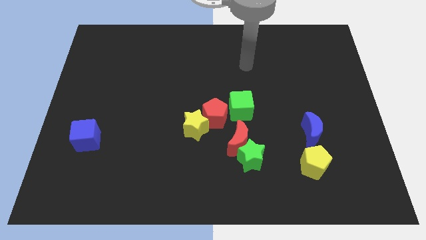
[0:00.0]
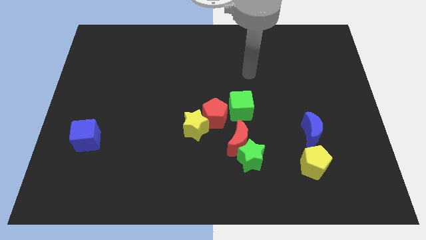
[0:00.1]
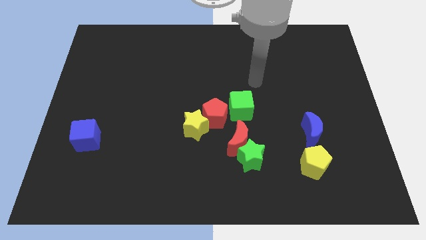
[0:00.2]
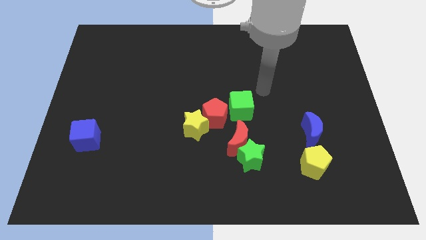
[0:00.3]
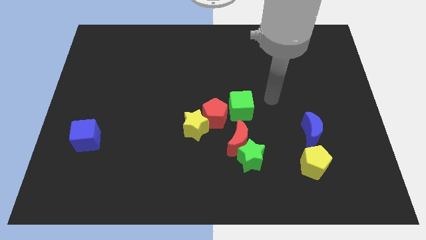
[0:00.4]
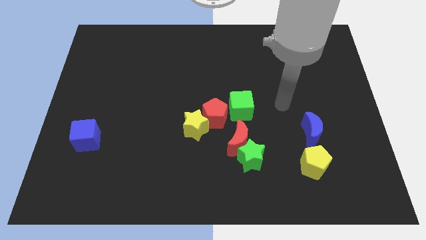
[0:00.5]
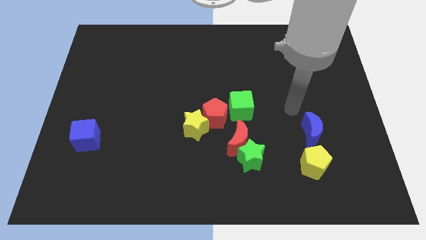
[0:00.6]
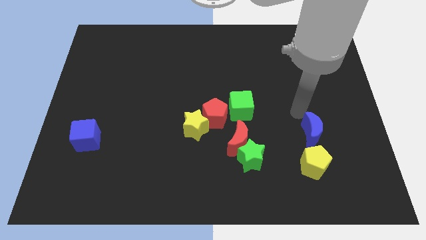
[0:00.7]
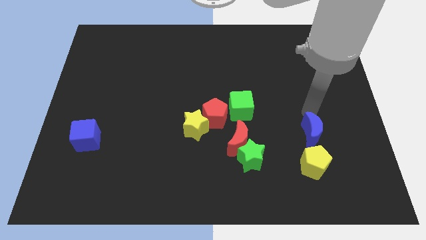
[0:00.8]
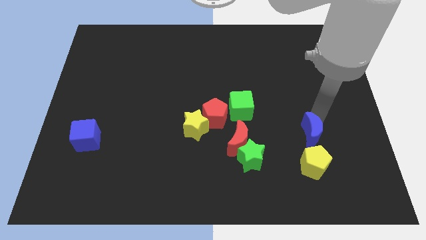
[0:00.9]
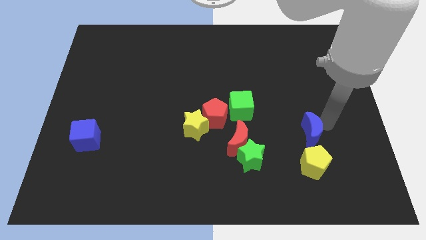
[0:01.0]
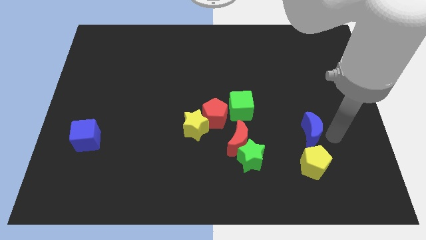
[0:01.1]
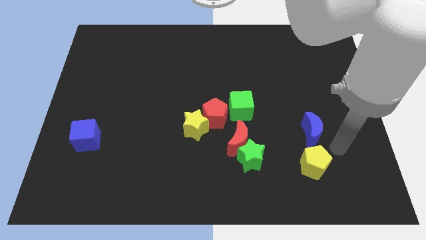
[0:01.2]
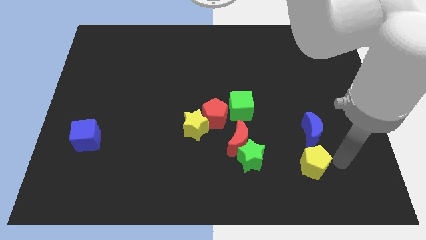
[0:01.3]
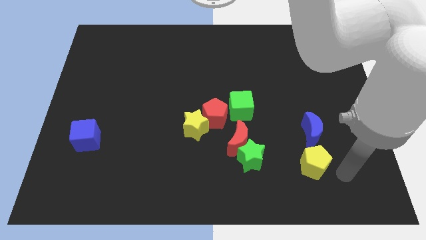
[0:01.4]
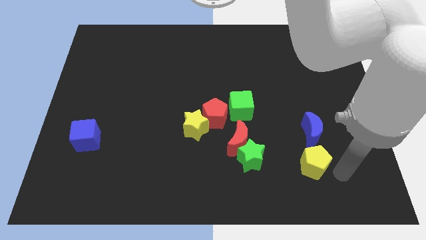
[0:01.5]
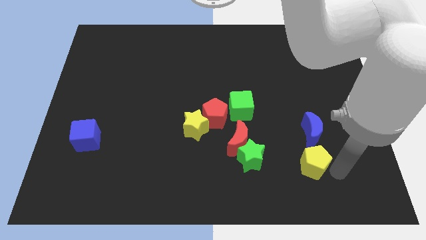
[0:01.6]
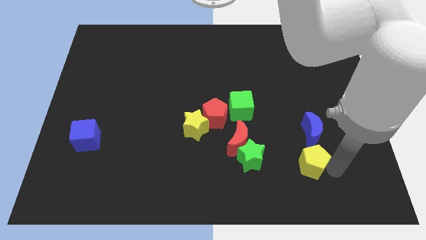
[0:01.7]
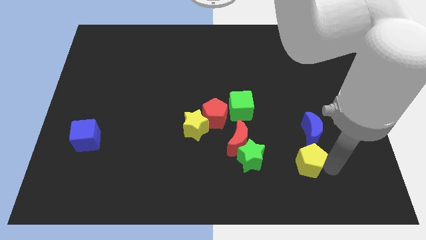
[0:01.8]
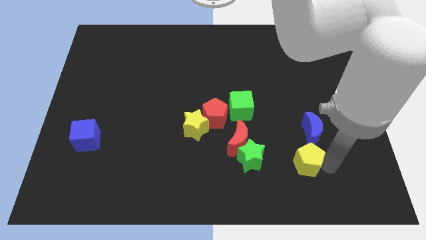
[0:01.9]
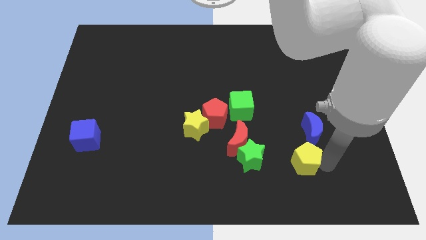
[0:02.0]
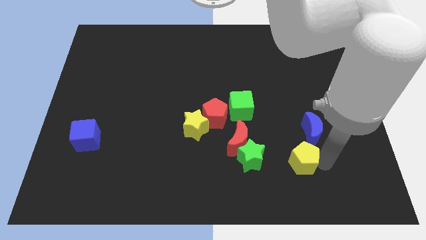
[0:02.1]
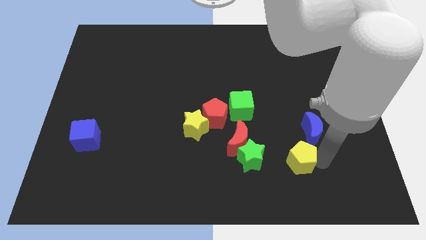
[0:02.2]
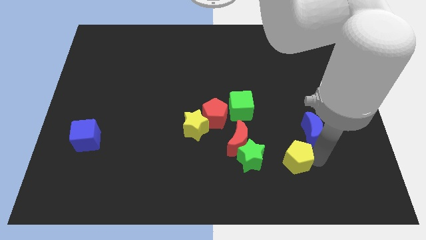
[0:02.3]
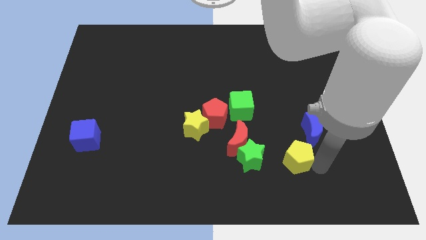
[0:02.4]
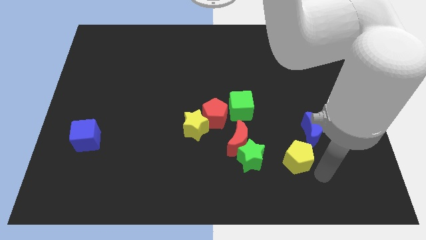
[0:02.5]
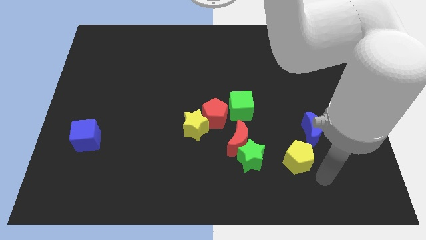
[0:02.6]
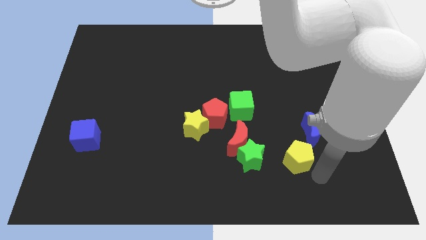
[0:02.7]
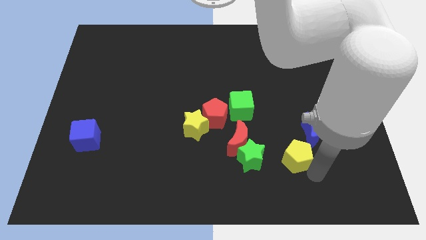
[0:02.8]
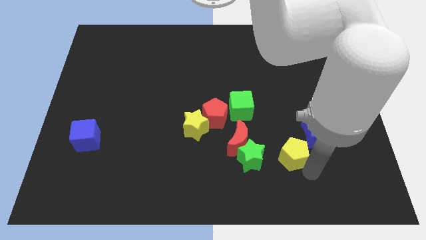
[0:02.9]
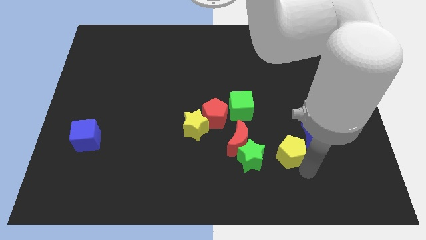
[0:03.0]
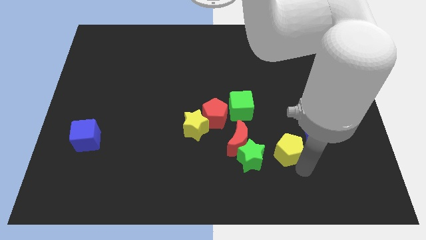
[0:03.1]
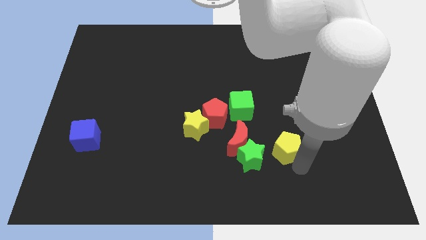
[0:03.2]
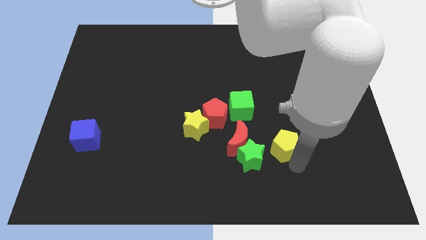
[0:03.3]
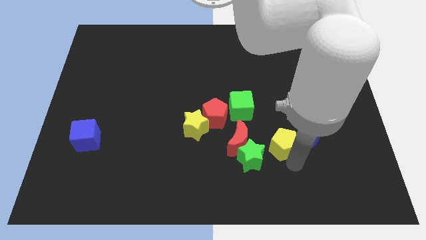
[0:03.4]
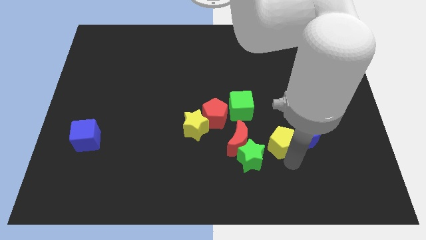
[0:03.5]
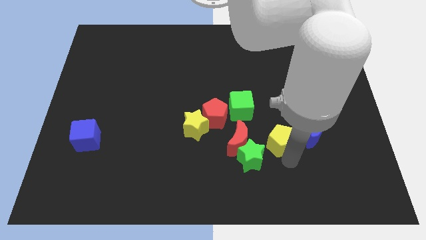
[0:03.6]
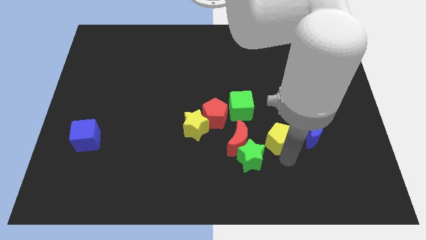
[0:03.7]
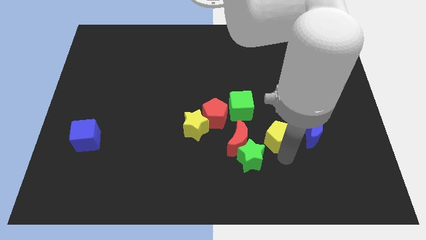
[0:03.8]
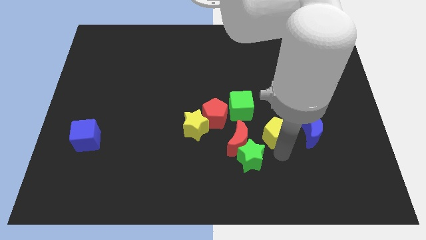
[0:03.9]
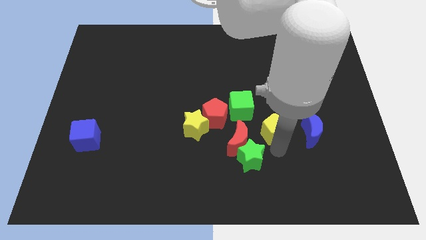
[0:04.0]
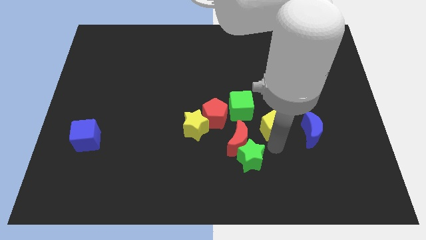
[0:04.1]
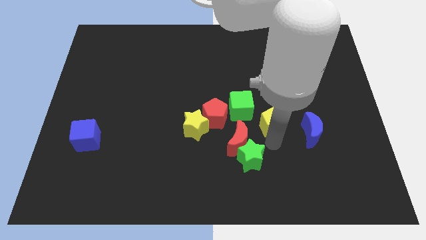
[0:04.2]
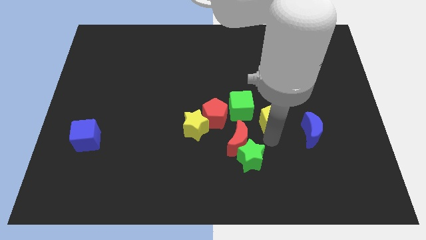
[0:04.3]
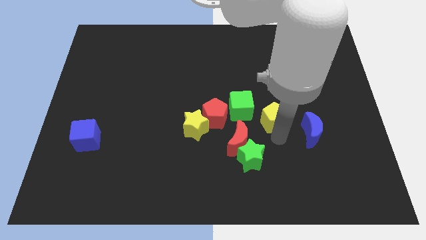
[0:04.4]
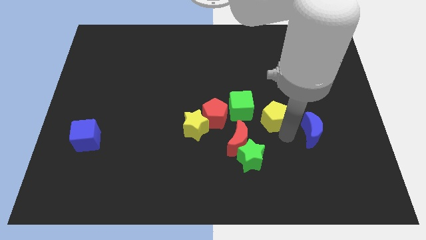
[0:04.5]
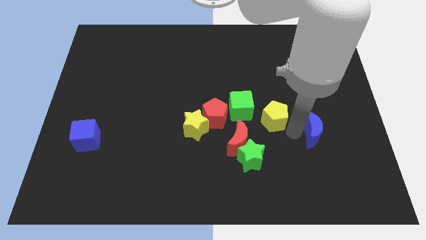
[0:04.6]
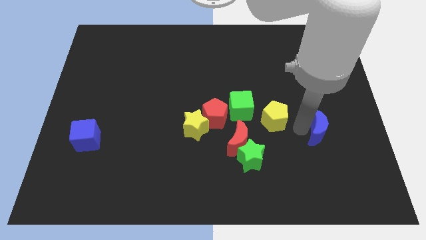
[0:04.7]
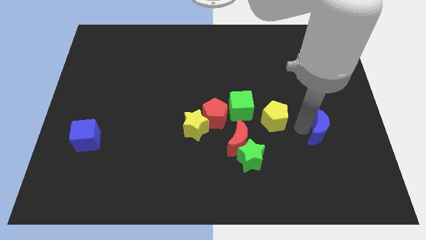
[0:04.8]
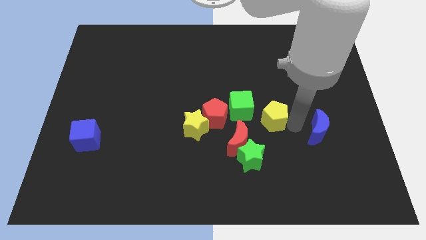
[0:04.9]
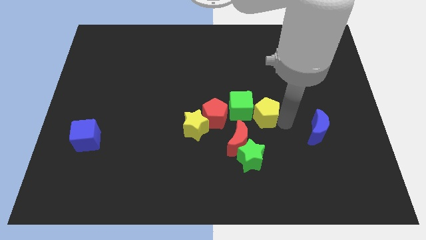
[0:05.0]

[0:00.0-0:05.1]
put the yellow pentagon towards the green cube

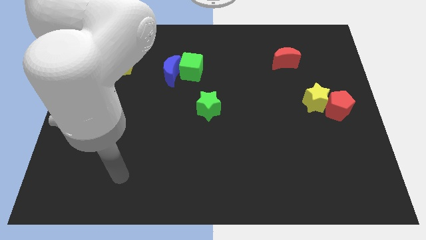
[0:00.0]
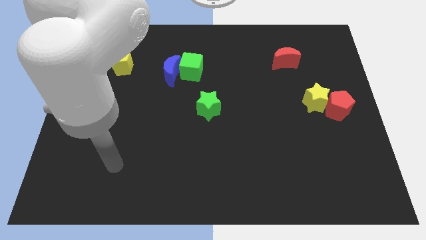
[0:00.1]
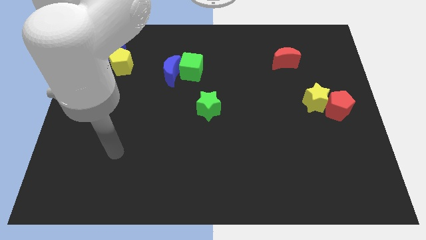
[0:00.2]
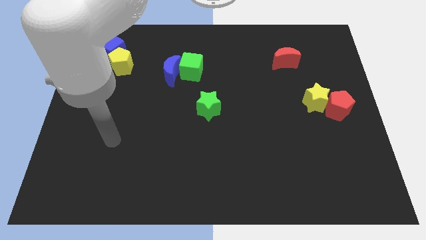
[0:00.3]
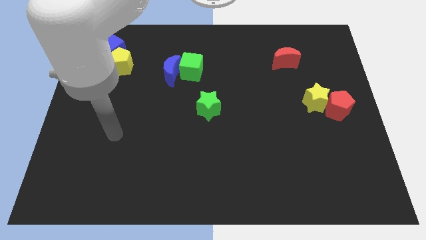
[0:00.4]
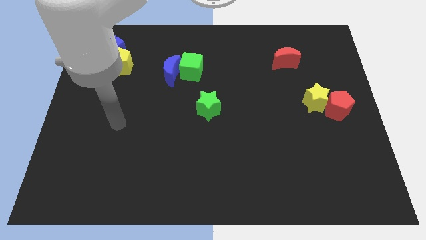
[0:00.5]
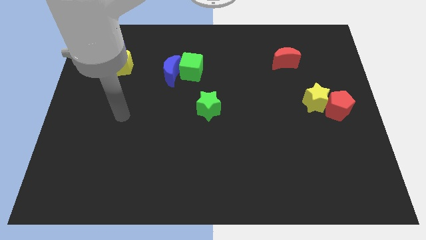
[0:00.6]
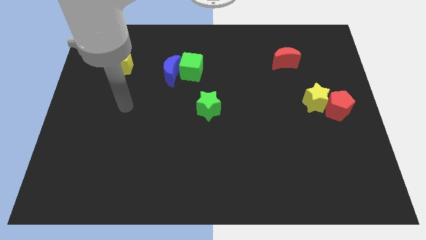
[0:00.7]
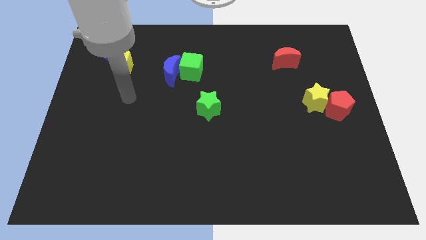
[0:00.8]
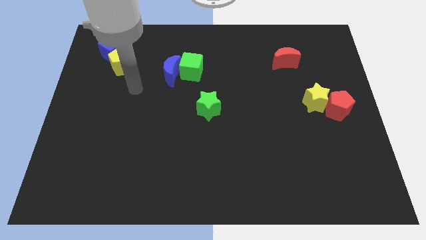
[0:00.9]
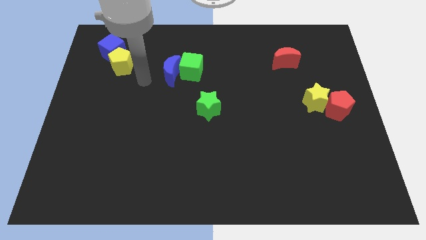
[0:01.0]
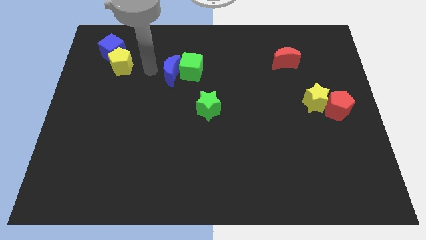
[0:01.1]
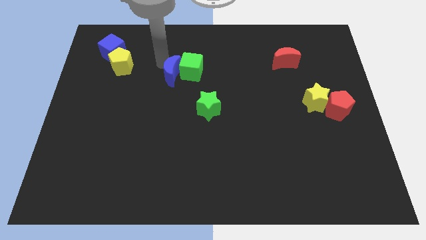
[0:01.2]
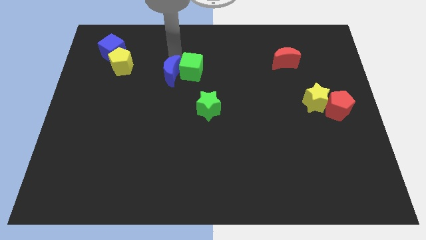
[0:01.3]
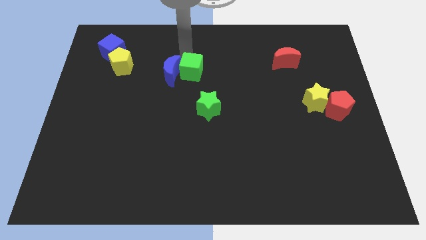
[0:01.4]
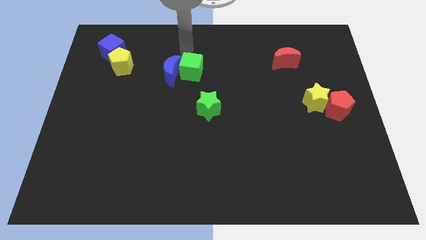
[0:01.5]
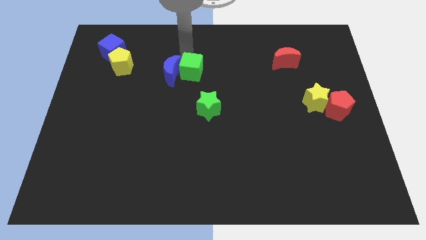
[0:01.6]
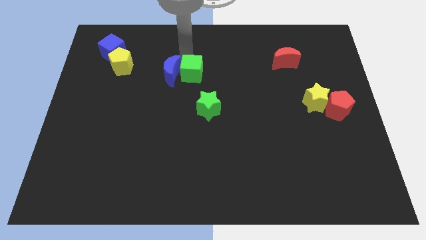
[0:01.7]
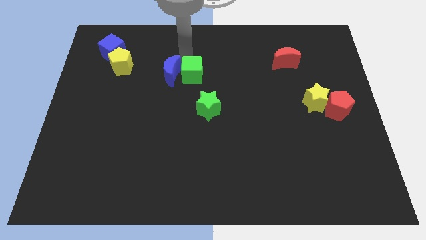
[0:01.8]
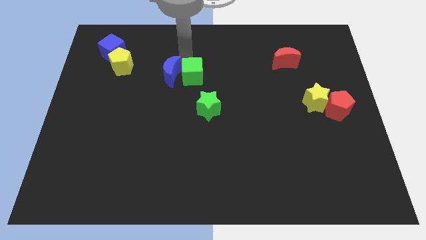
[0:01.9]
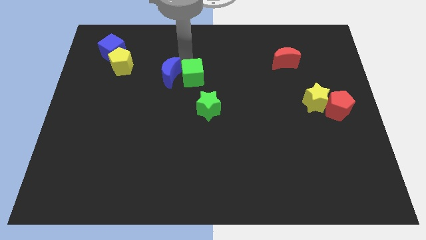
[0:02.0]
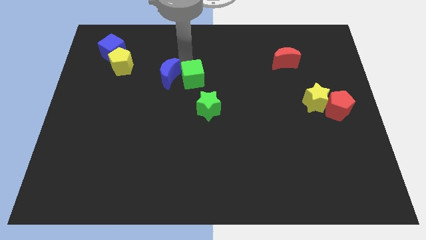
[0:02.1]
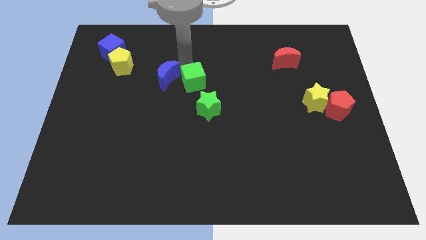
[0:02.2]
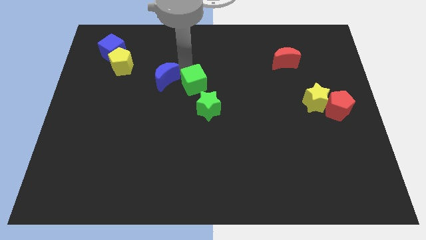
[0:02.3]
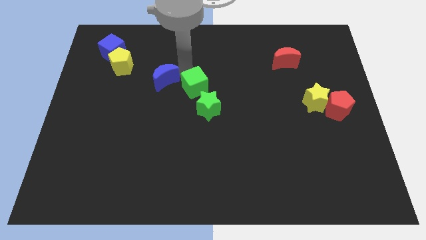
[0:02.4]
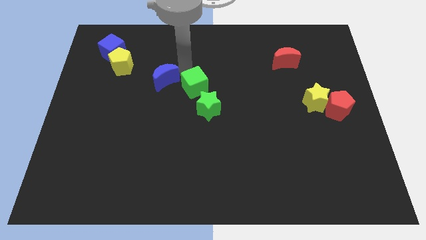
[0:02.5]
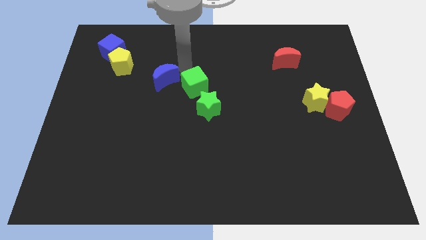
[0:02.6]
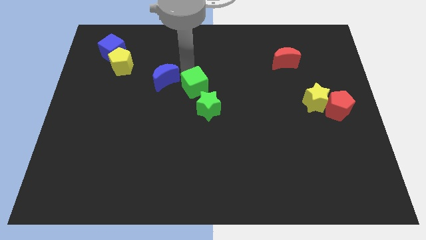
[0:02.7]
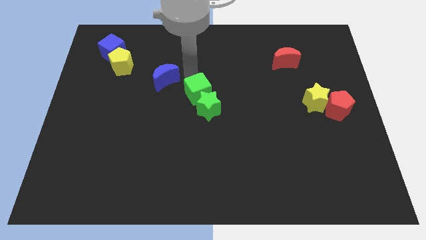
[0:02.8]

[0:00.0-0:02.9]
push the green cube to the green star
